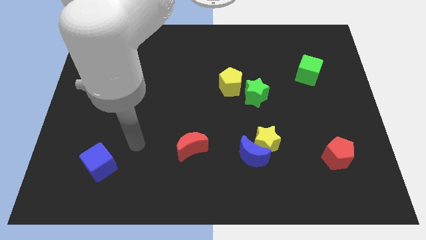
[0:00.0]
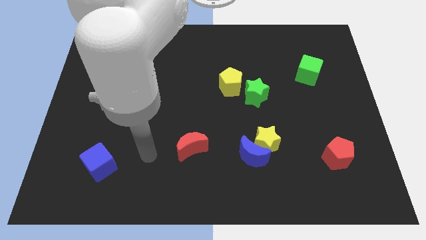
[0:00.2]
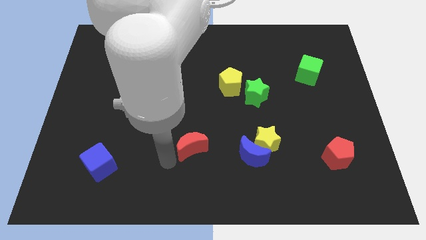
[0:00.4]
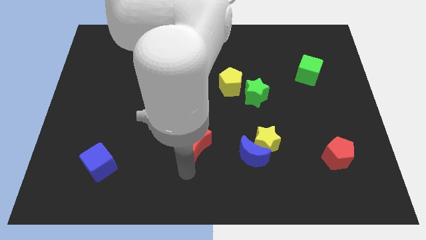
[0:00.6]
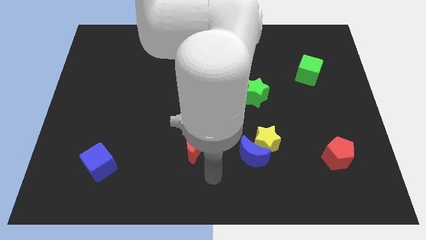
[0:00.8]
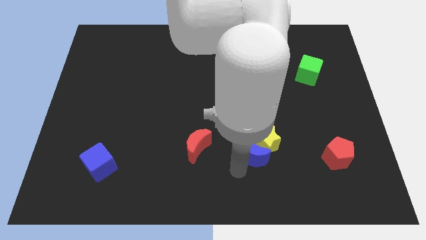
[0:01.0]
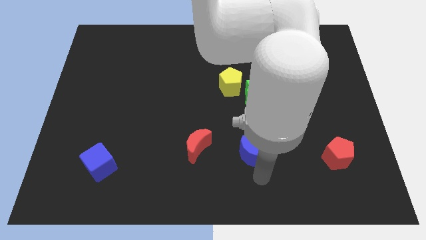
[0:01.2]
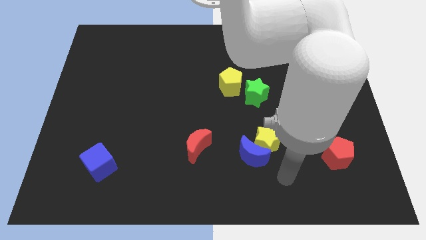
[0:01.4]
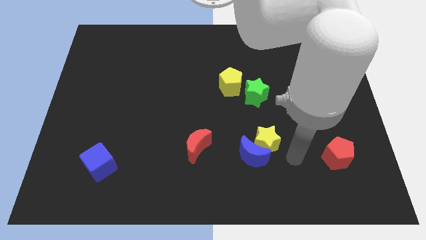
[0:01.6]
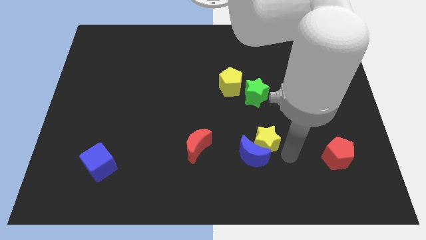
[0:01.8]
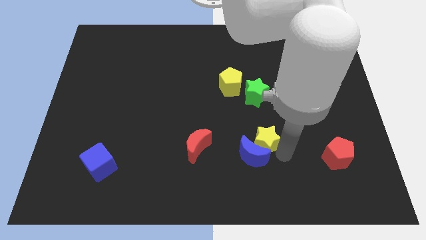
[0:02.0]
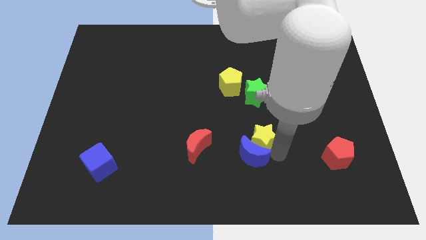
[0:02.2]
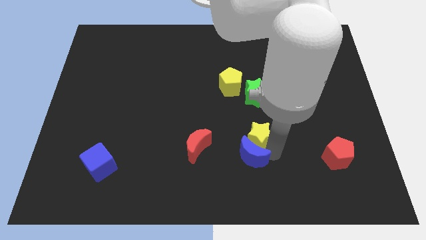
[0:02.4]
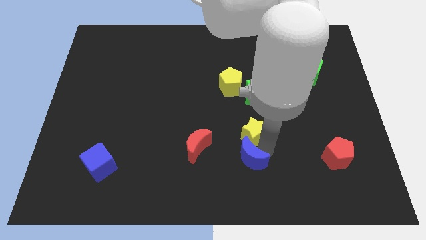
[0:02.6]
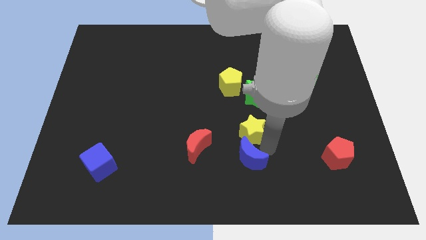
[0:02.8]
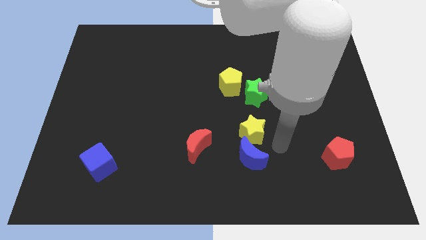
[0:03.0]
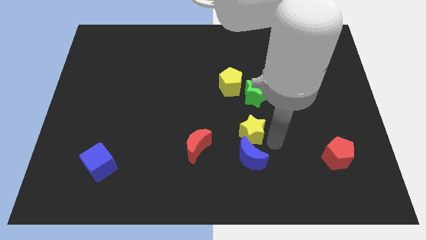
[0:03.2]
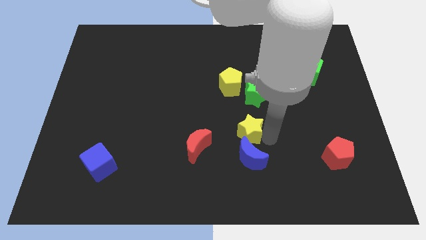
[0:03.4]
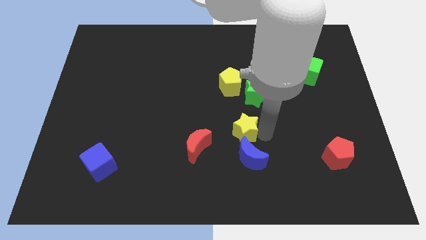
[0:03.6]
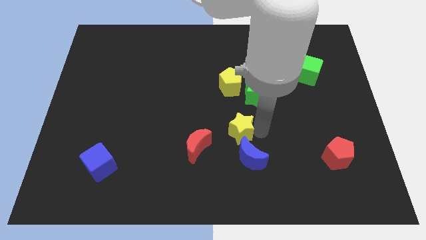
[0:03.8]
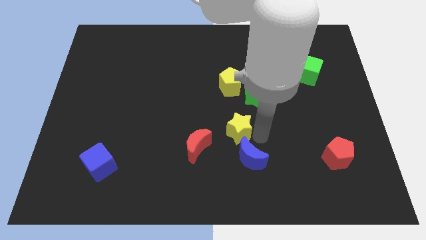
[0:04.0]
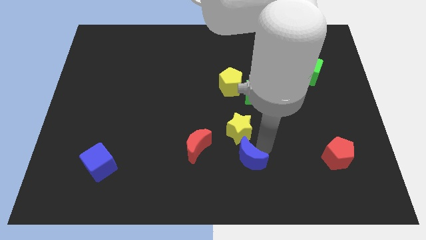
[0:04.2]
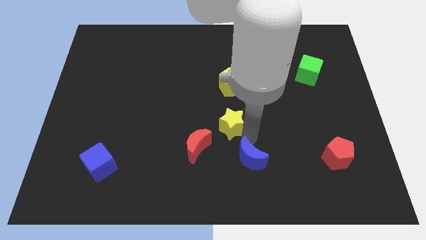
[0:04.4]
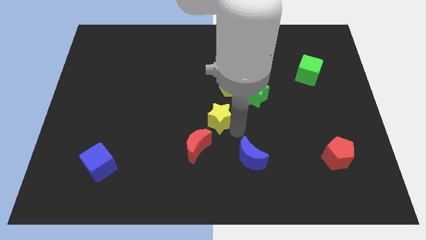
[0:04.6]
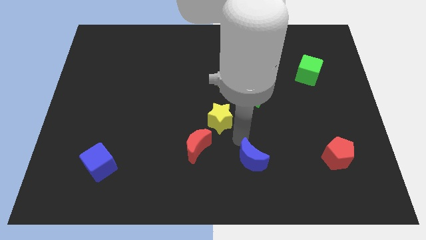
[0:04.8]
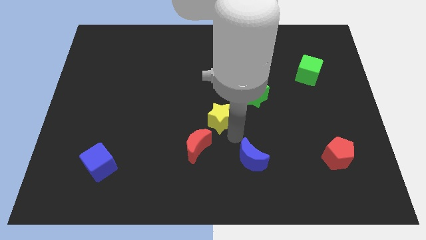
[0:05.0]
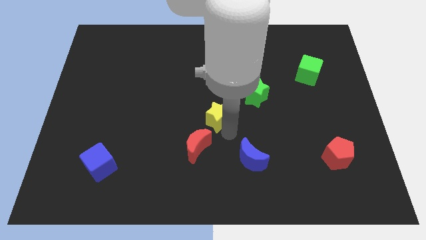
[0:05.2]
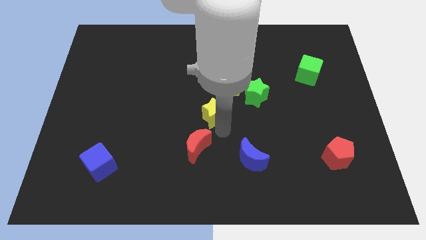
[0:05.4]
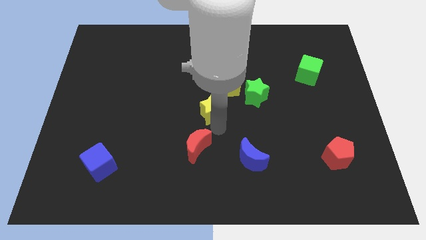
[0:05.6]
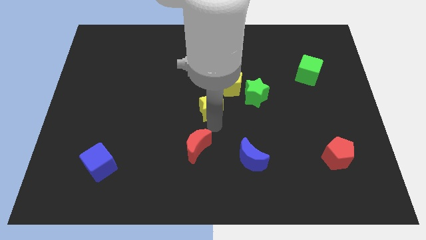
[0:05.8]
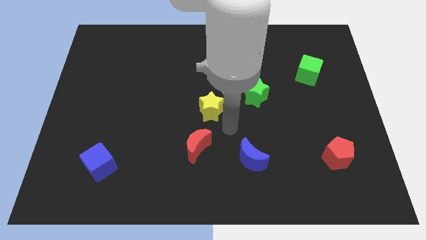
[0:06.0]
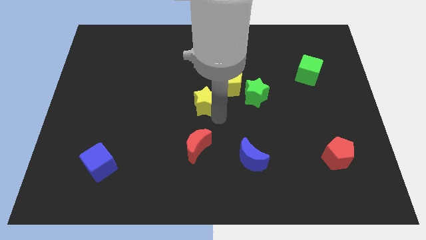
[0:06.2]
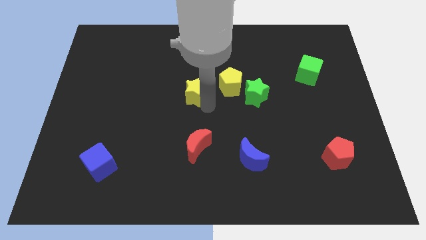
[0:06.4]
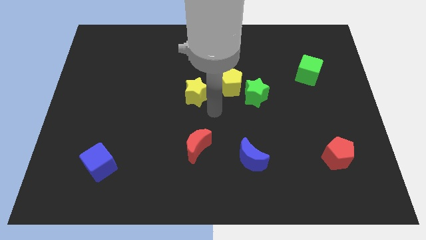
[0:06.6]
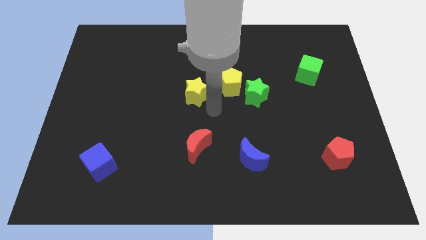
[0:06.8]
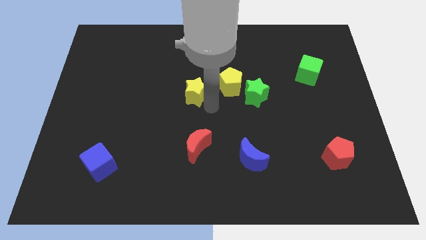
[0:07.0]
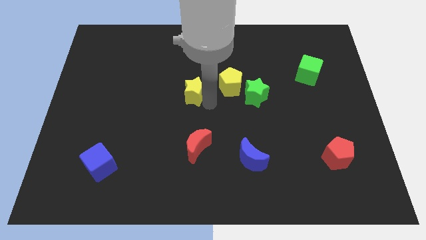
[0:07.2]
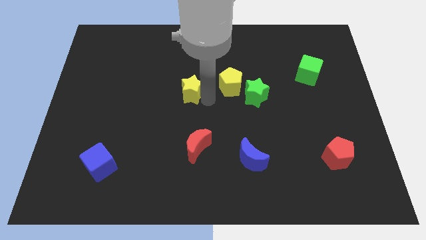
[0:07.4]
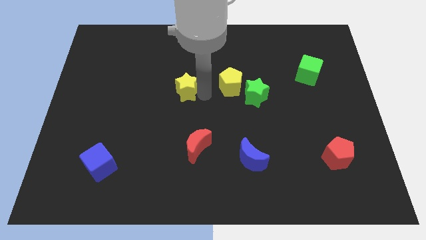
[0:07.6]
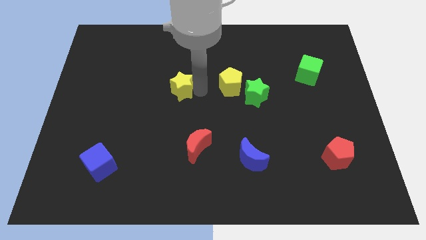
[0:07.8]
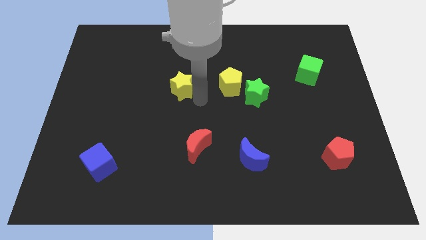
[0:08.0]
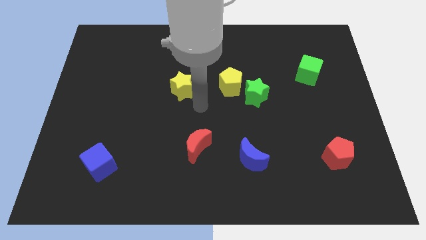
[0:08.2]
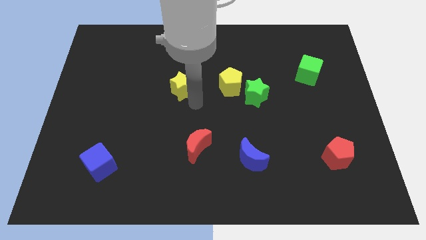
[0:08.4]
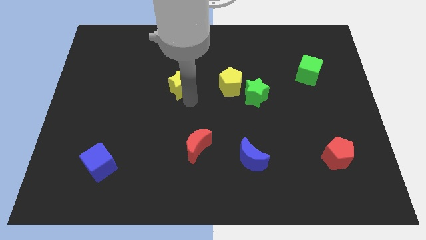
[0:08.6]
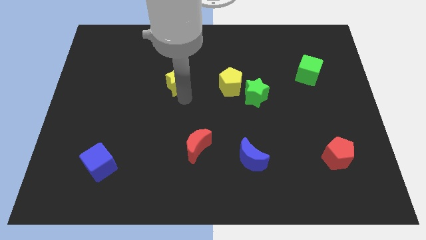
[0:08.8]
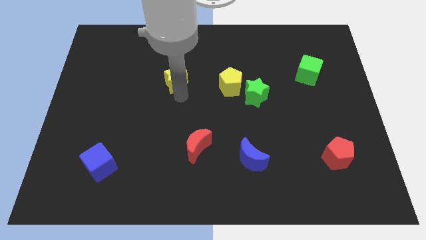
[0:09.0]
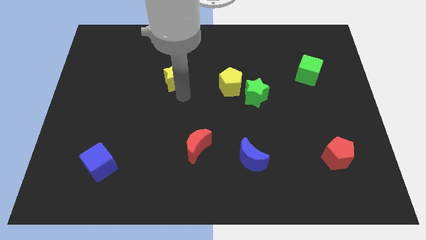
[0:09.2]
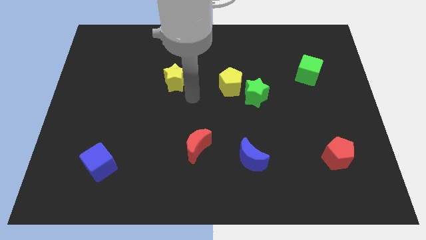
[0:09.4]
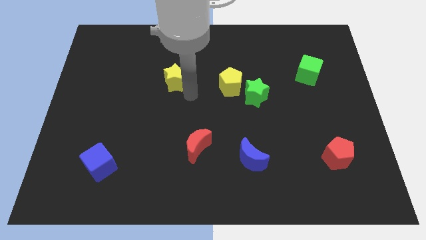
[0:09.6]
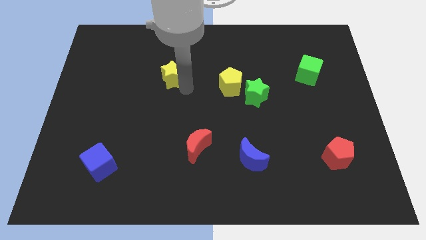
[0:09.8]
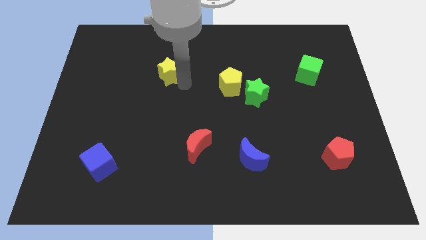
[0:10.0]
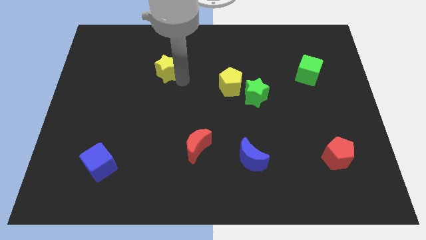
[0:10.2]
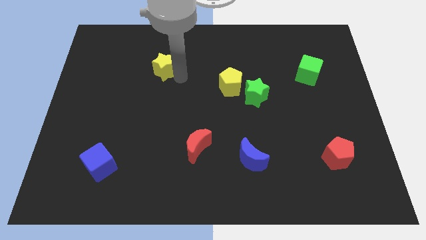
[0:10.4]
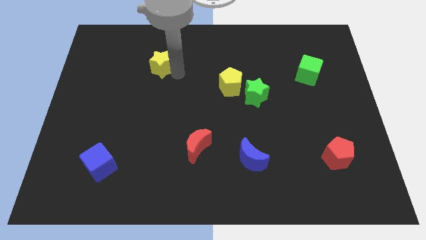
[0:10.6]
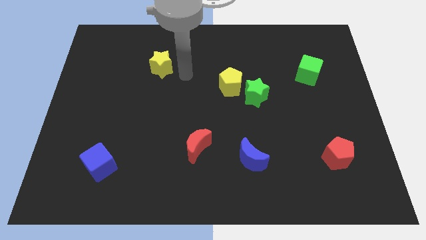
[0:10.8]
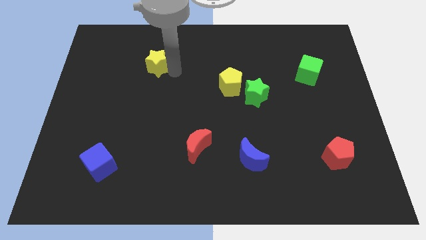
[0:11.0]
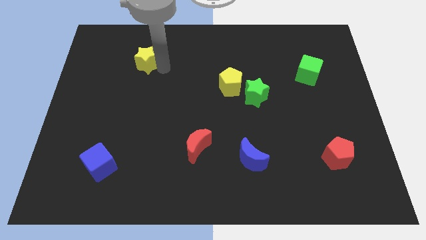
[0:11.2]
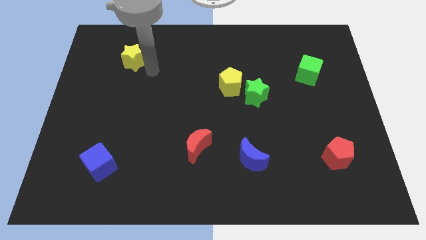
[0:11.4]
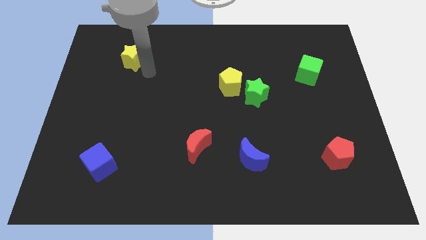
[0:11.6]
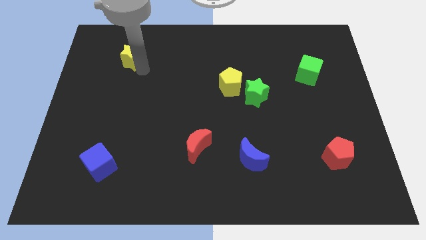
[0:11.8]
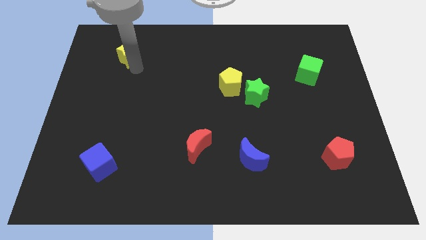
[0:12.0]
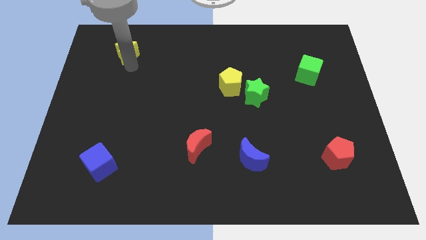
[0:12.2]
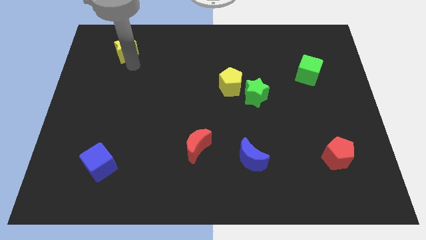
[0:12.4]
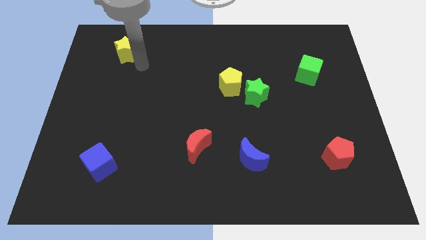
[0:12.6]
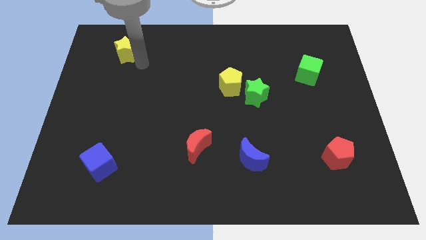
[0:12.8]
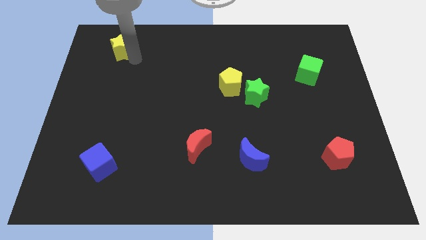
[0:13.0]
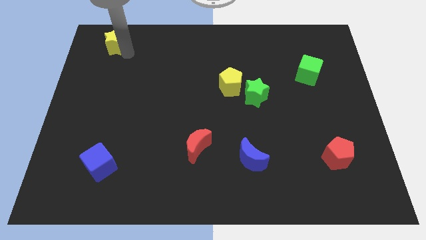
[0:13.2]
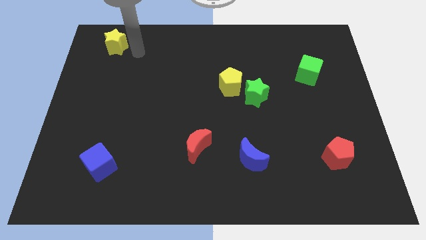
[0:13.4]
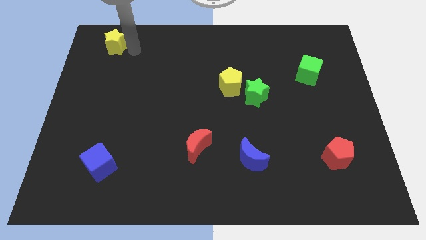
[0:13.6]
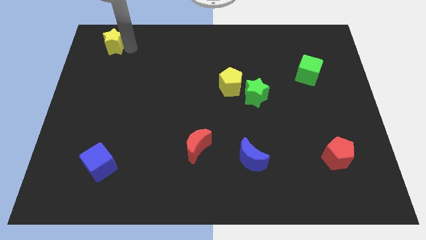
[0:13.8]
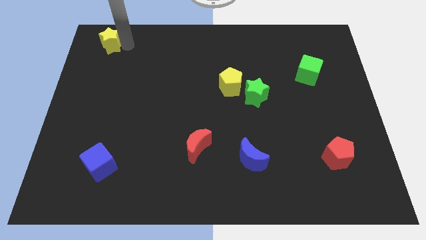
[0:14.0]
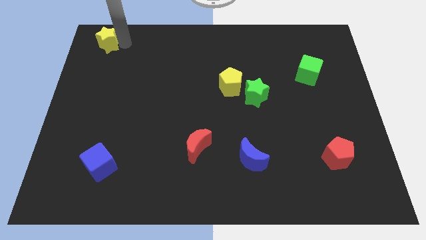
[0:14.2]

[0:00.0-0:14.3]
move the yellow star to the top left corner
